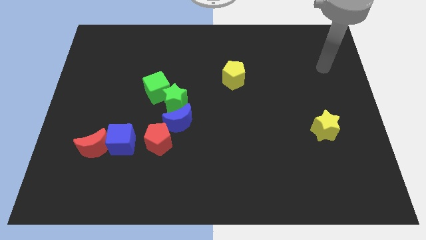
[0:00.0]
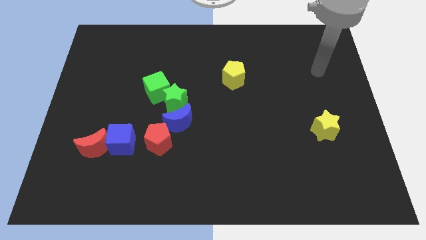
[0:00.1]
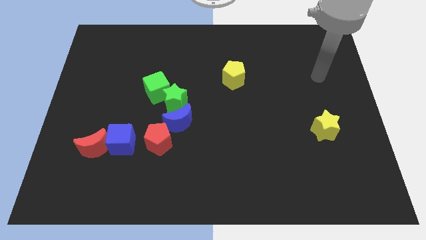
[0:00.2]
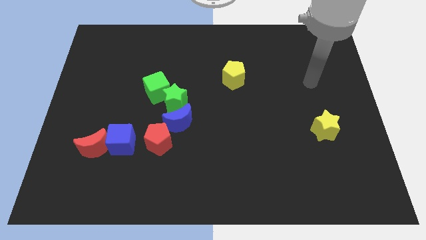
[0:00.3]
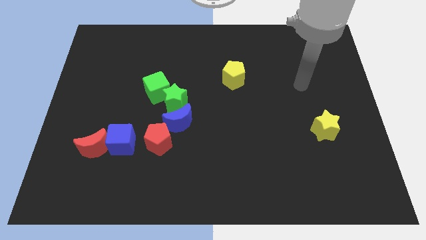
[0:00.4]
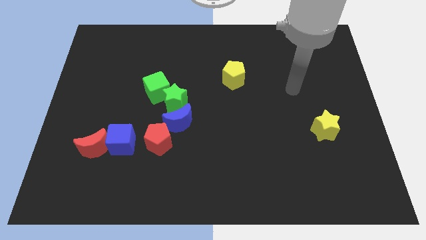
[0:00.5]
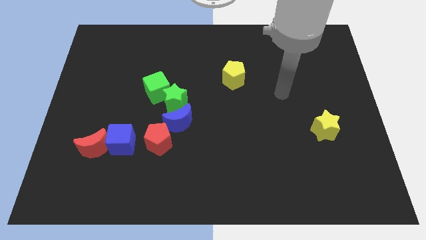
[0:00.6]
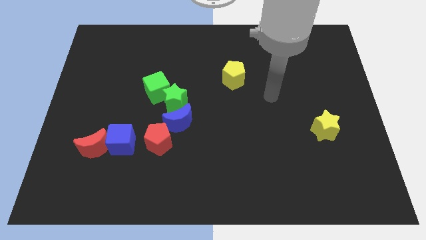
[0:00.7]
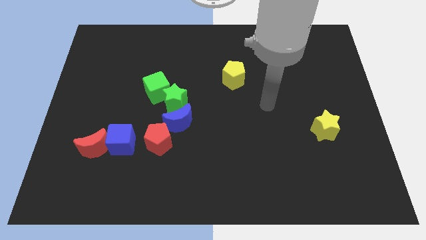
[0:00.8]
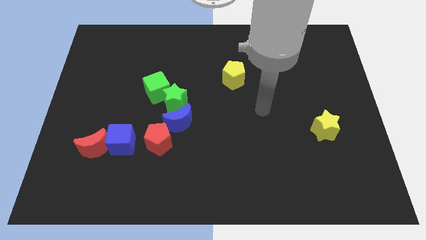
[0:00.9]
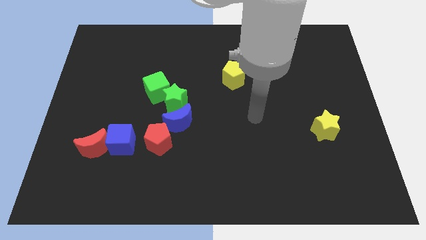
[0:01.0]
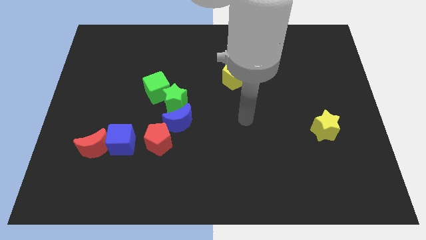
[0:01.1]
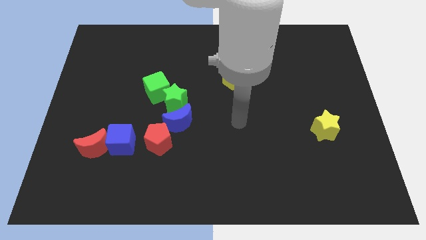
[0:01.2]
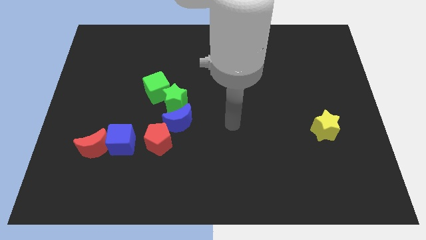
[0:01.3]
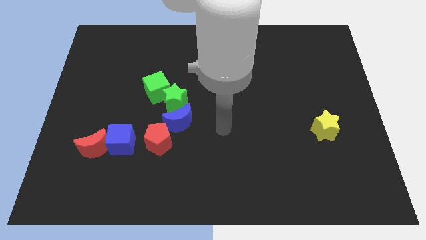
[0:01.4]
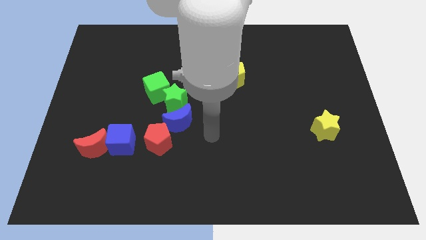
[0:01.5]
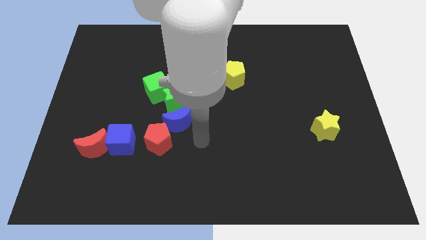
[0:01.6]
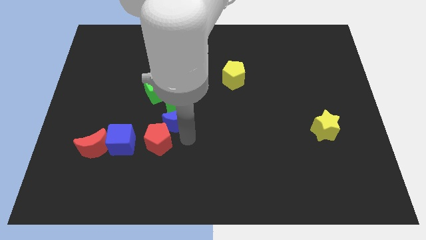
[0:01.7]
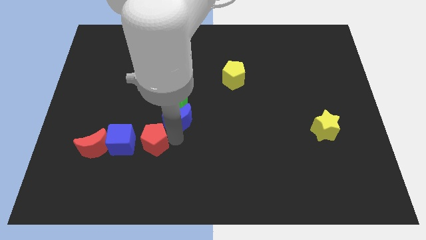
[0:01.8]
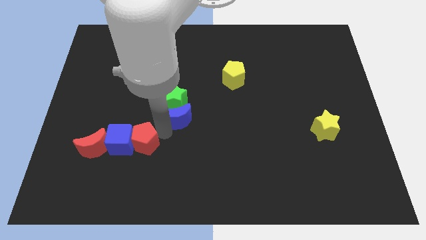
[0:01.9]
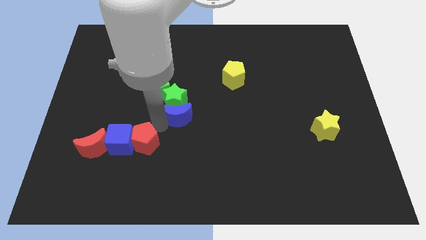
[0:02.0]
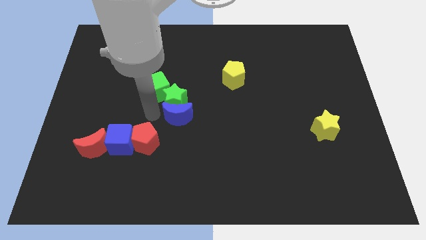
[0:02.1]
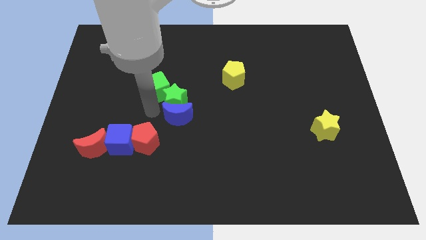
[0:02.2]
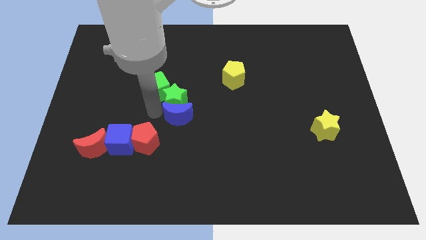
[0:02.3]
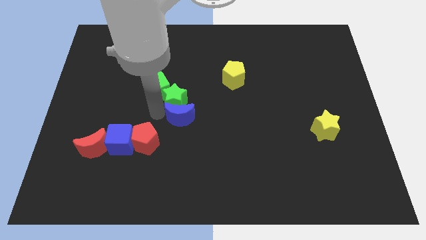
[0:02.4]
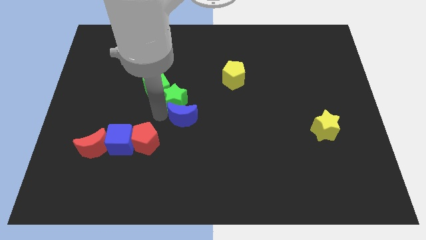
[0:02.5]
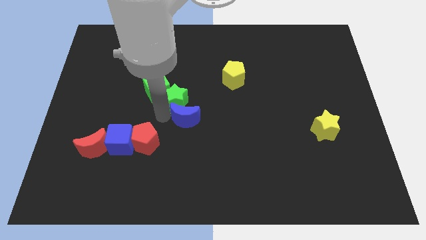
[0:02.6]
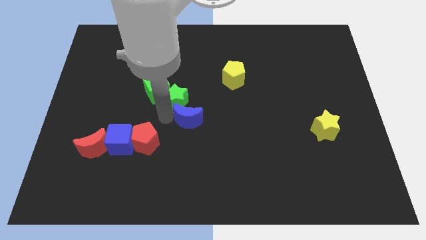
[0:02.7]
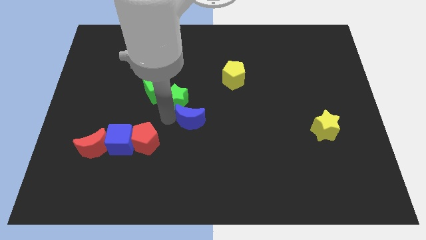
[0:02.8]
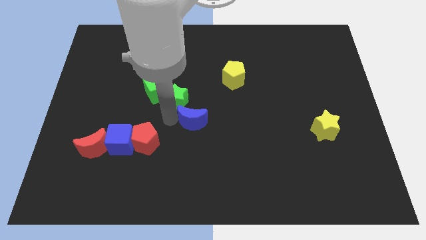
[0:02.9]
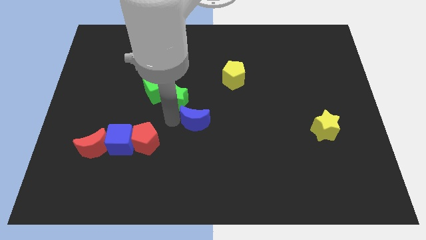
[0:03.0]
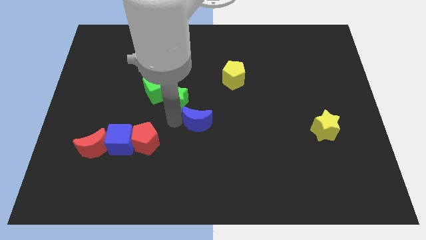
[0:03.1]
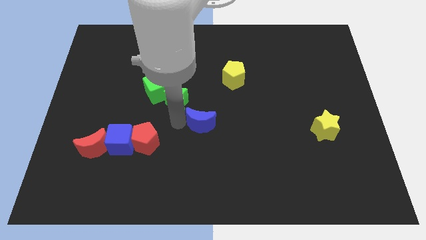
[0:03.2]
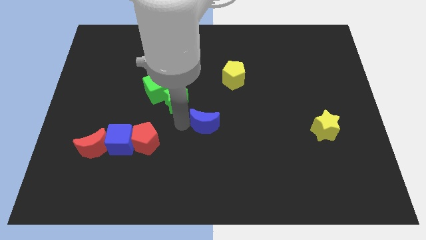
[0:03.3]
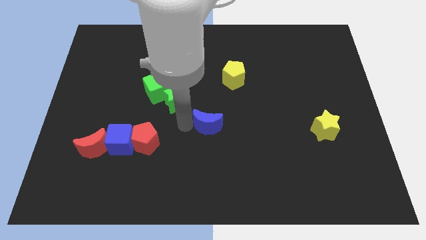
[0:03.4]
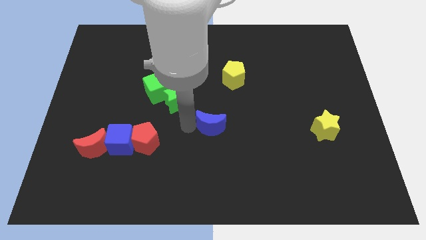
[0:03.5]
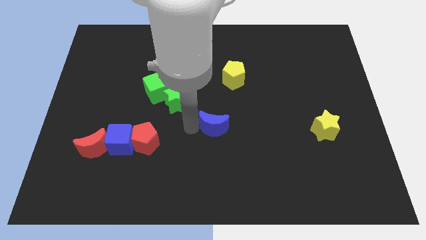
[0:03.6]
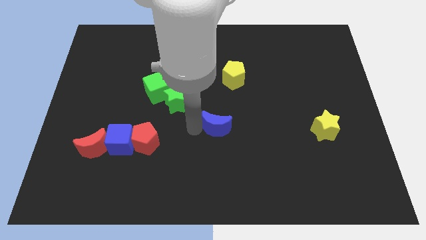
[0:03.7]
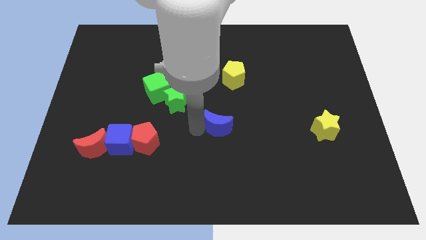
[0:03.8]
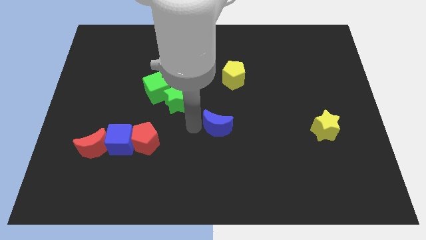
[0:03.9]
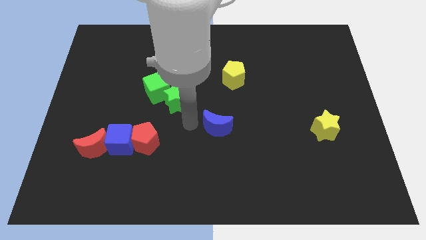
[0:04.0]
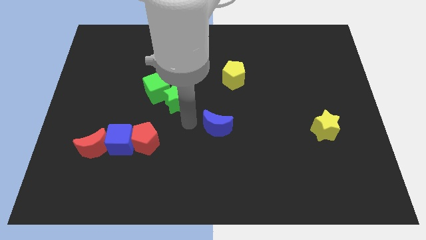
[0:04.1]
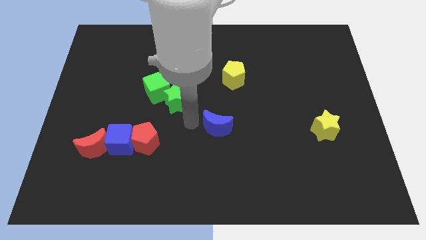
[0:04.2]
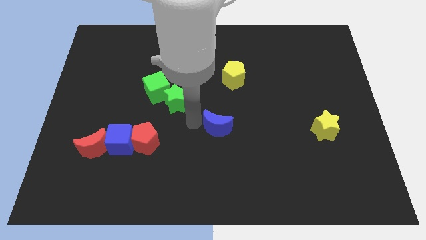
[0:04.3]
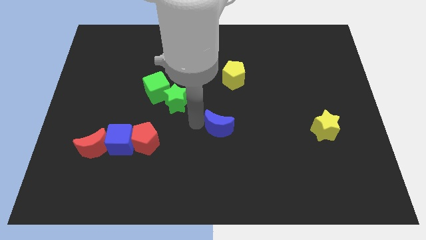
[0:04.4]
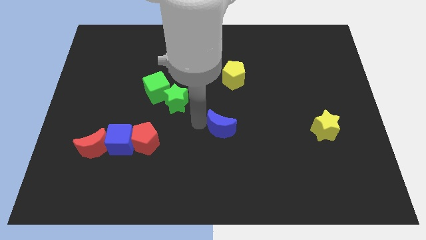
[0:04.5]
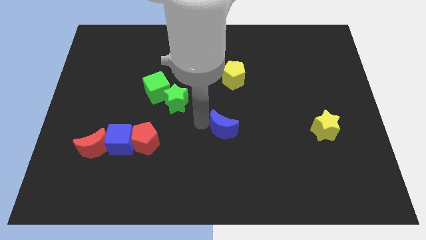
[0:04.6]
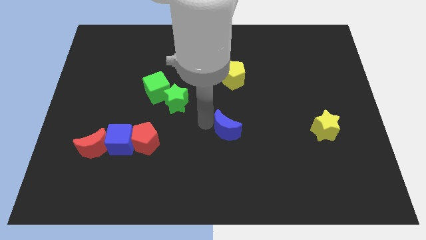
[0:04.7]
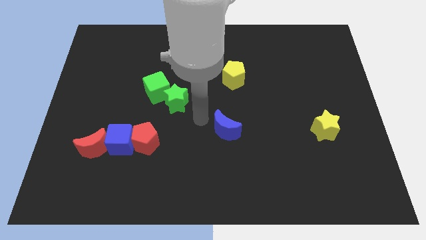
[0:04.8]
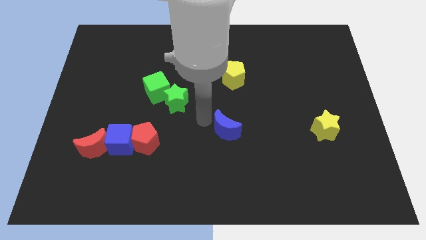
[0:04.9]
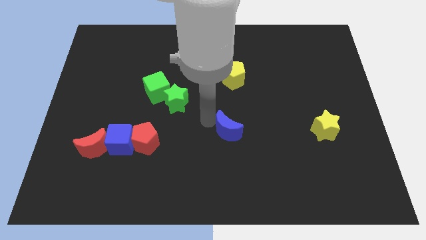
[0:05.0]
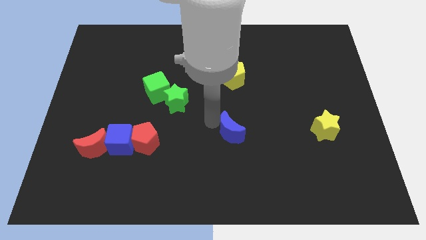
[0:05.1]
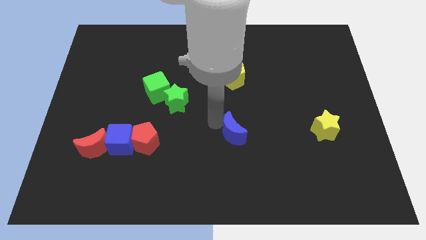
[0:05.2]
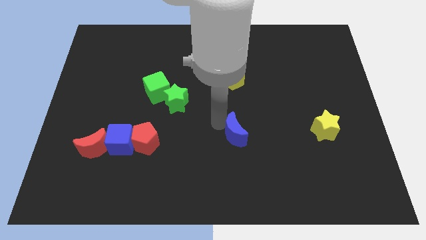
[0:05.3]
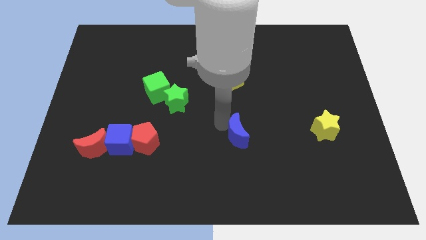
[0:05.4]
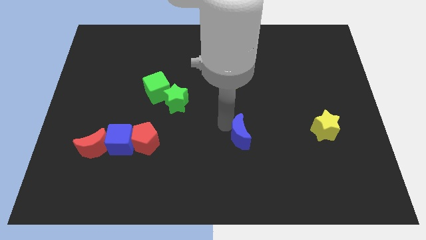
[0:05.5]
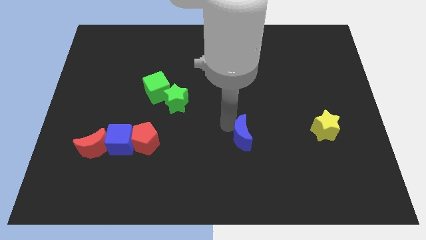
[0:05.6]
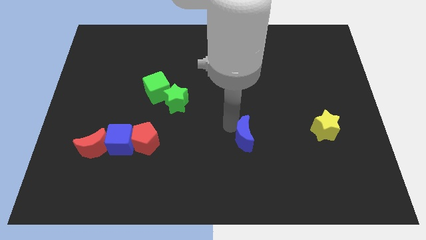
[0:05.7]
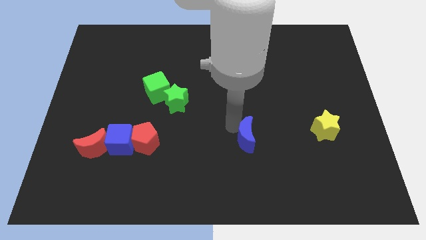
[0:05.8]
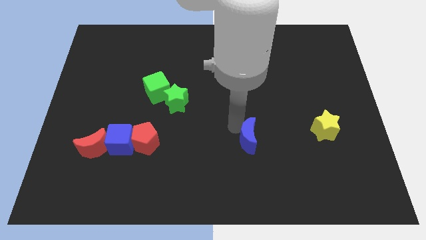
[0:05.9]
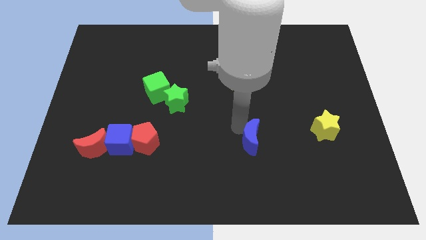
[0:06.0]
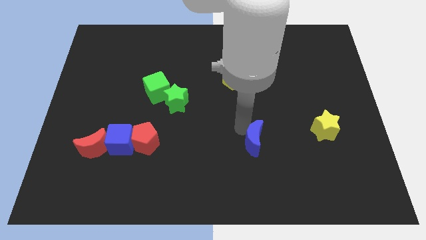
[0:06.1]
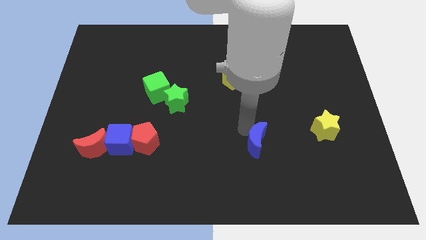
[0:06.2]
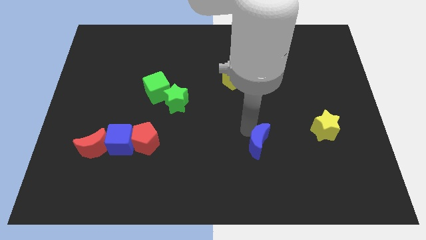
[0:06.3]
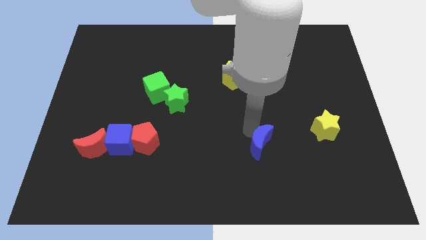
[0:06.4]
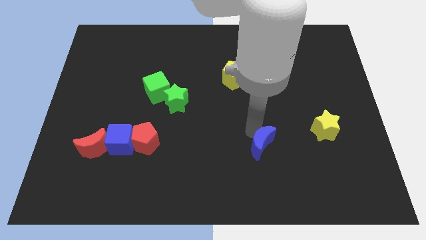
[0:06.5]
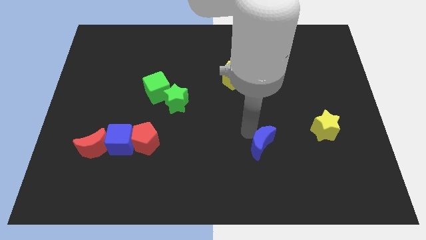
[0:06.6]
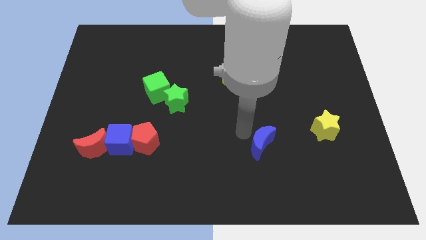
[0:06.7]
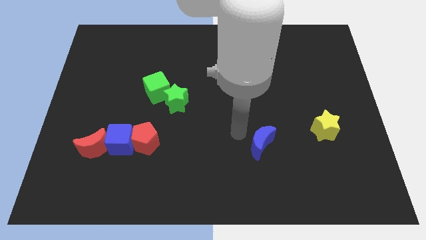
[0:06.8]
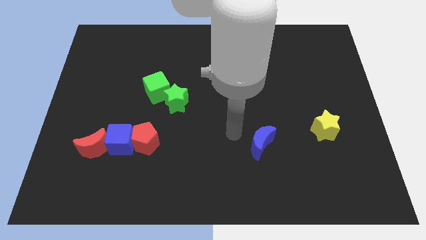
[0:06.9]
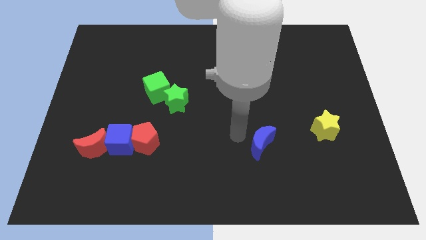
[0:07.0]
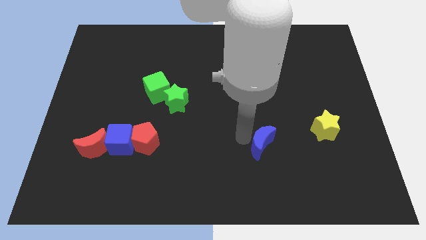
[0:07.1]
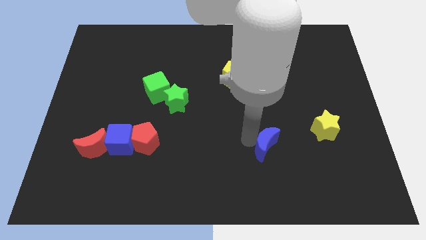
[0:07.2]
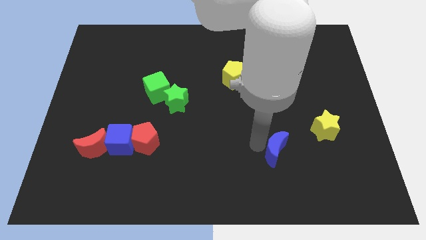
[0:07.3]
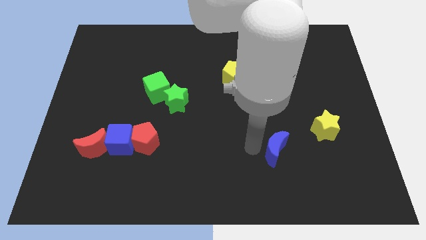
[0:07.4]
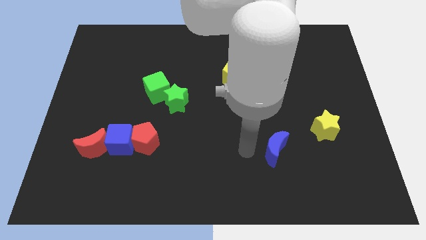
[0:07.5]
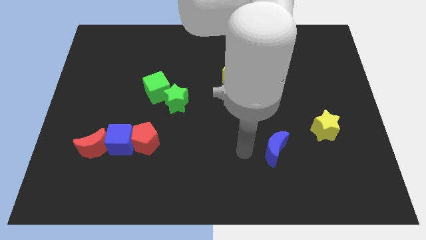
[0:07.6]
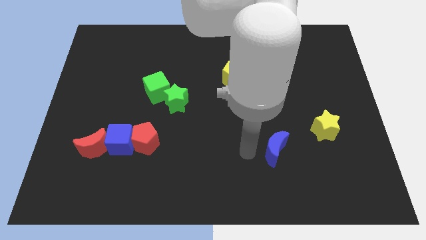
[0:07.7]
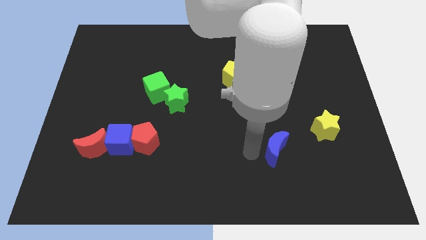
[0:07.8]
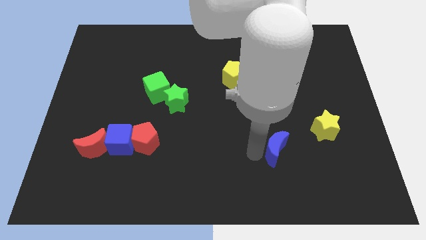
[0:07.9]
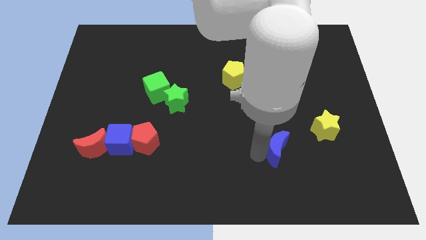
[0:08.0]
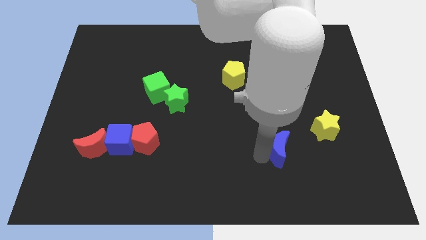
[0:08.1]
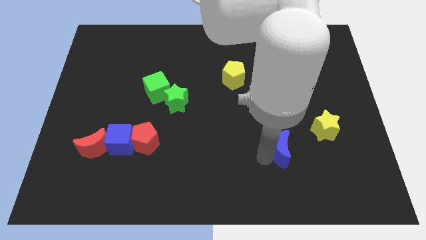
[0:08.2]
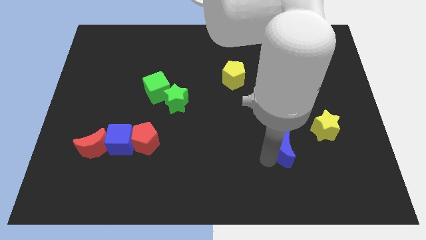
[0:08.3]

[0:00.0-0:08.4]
slide the blue moon to the bottom left of the yellow star
